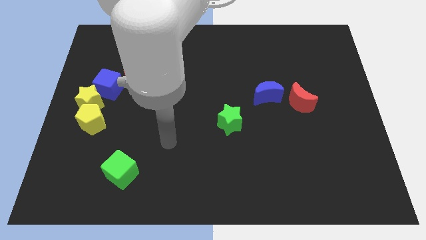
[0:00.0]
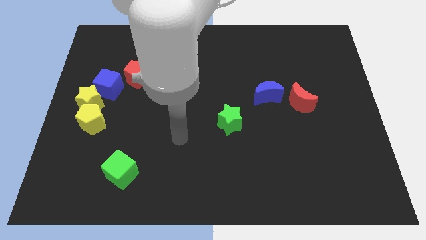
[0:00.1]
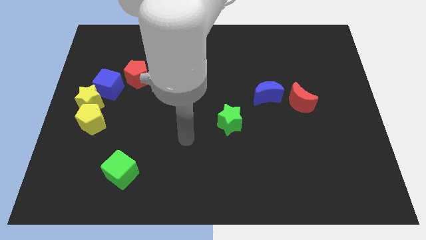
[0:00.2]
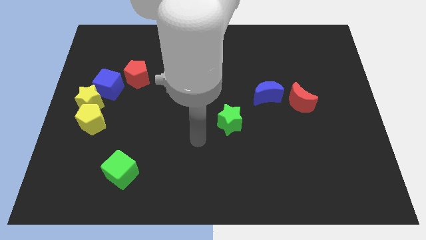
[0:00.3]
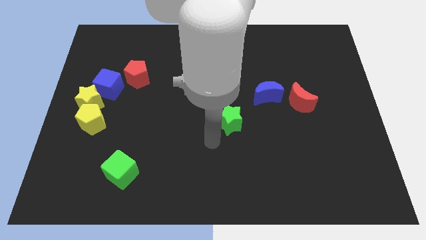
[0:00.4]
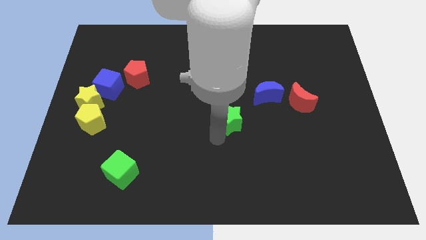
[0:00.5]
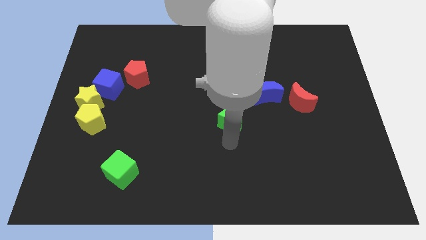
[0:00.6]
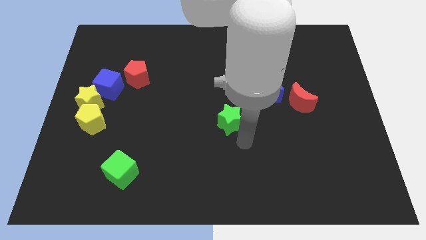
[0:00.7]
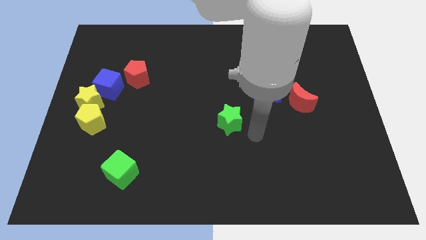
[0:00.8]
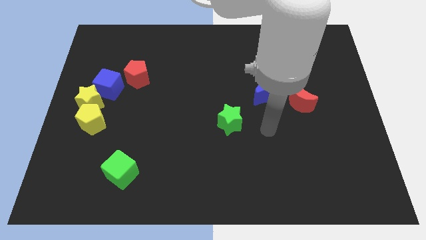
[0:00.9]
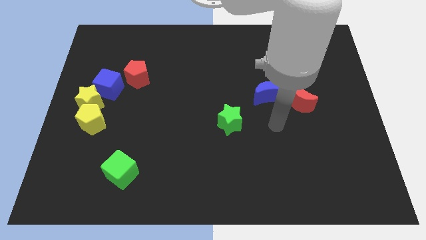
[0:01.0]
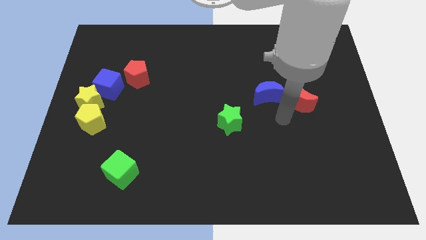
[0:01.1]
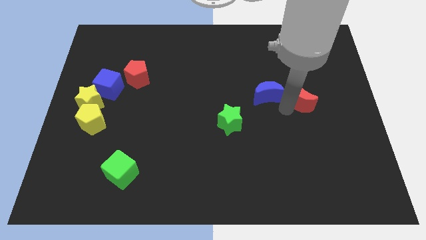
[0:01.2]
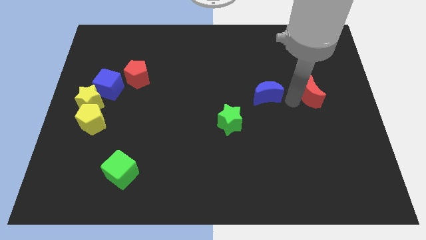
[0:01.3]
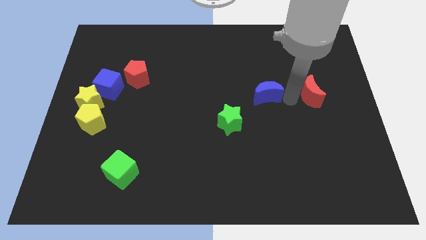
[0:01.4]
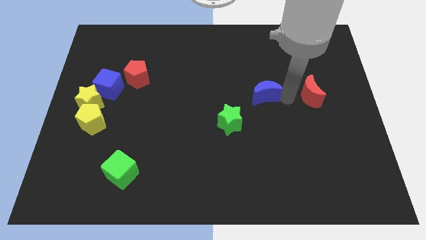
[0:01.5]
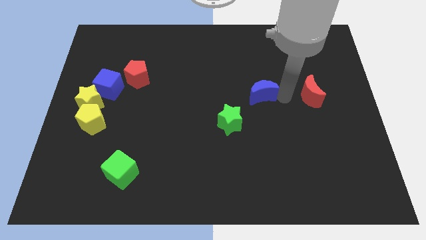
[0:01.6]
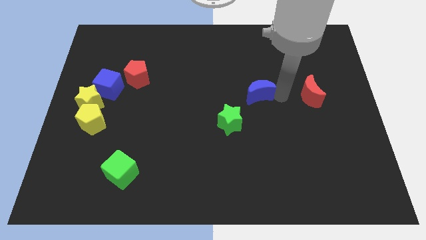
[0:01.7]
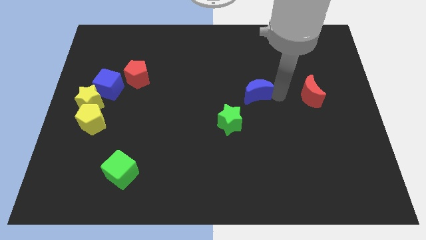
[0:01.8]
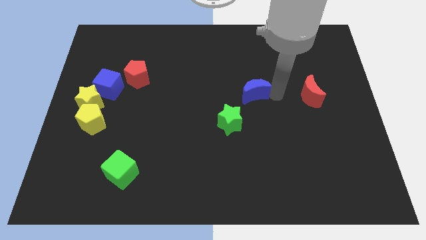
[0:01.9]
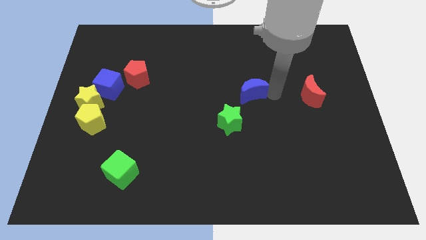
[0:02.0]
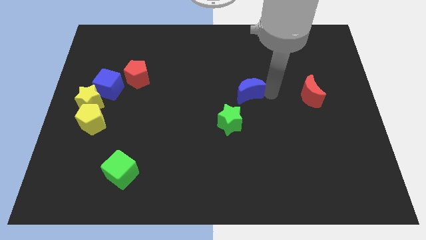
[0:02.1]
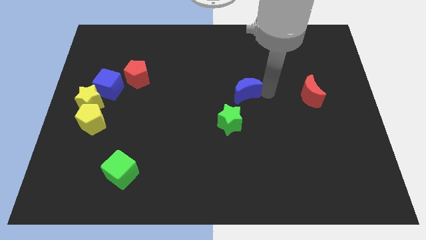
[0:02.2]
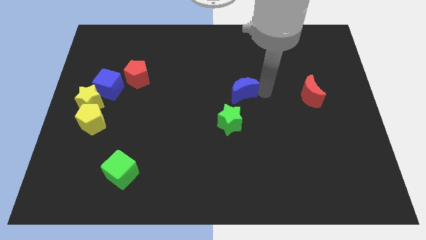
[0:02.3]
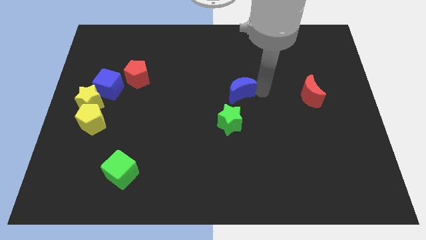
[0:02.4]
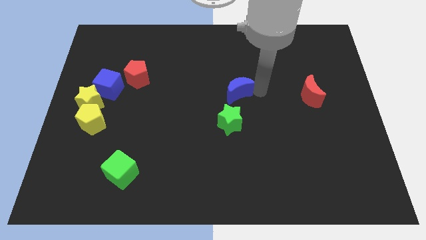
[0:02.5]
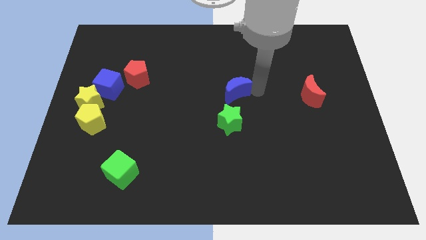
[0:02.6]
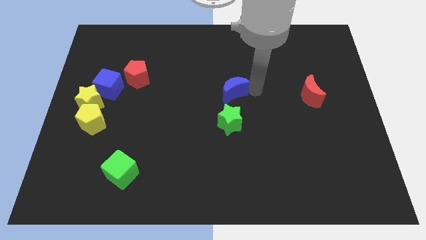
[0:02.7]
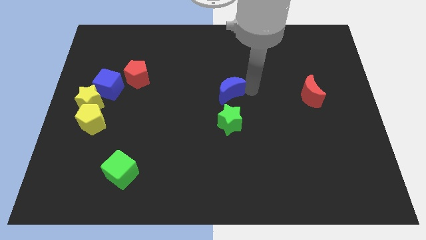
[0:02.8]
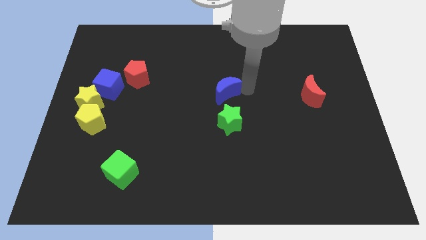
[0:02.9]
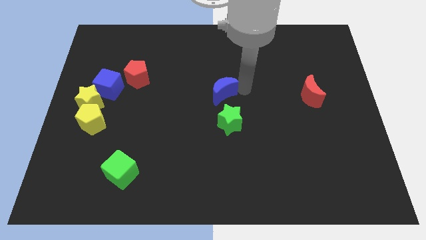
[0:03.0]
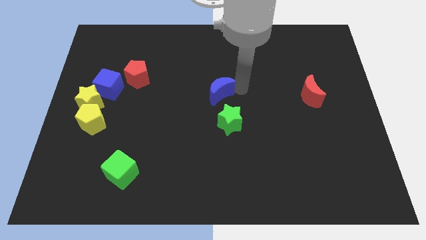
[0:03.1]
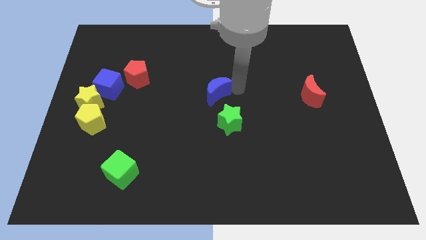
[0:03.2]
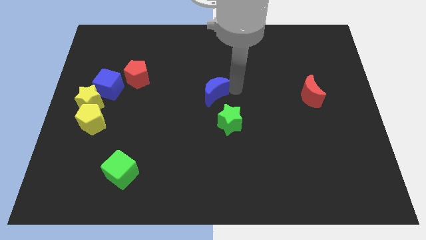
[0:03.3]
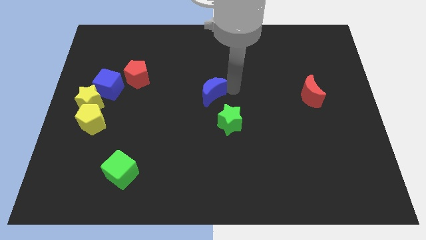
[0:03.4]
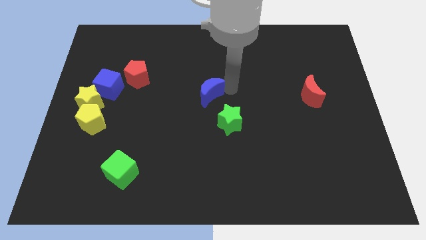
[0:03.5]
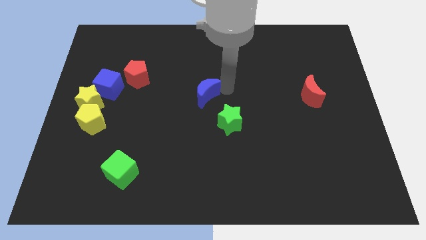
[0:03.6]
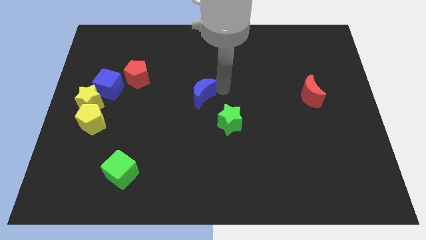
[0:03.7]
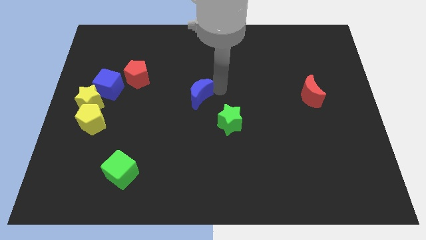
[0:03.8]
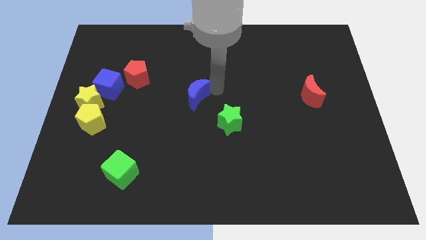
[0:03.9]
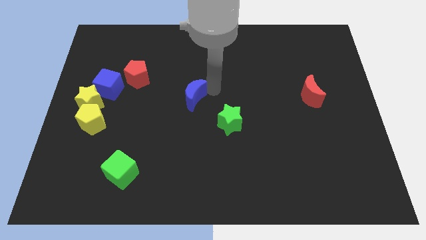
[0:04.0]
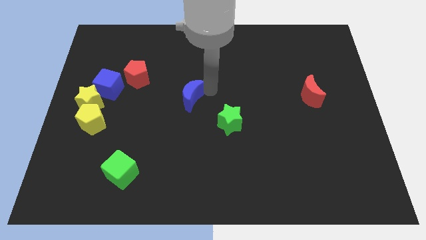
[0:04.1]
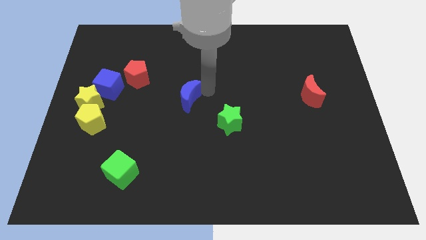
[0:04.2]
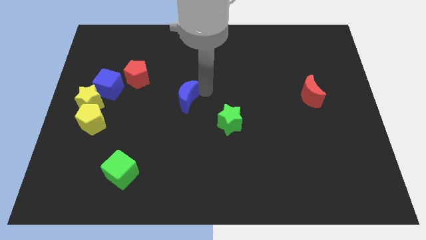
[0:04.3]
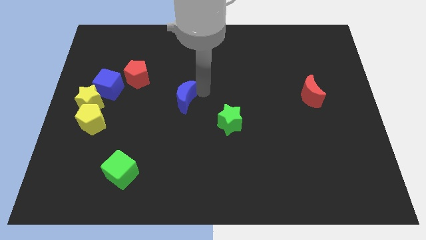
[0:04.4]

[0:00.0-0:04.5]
slide the blue moon to the left

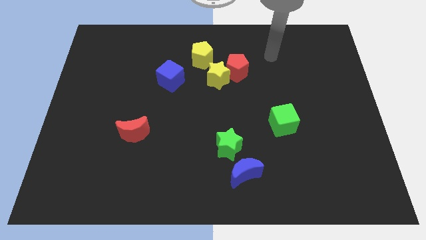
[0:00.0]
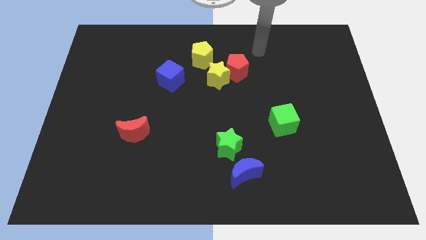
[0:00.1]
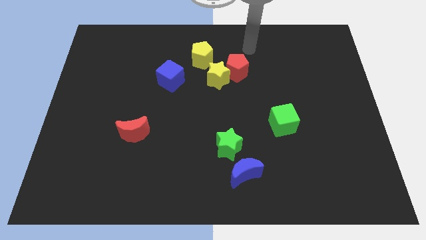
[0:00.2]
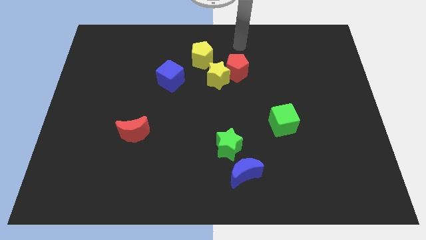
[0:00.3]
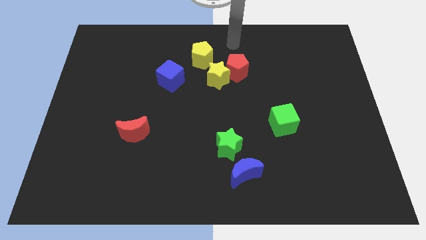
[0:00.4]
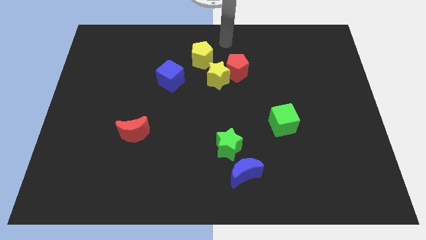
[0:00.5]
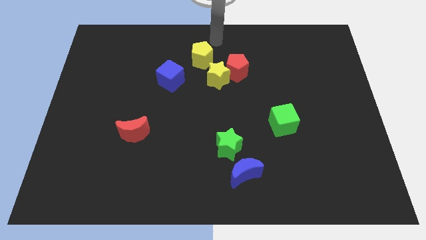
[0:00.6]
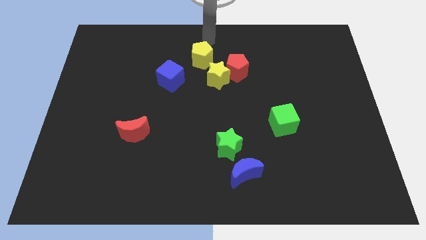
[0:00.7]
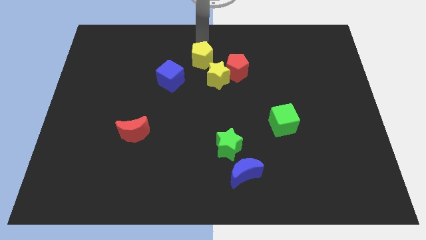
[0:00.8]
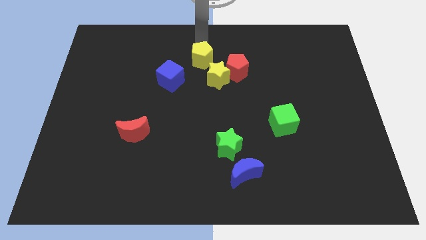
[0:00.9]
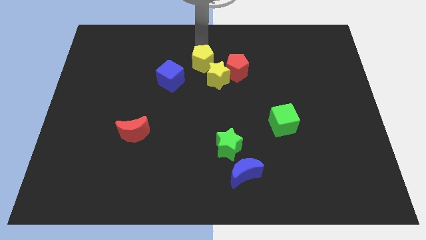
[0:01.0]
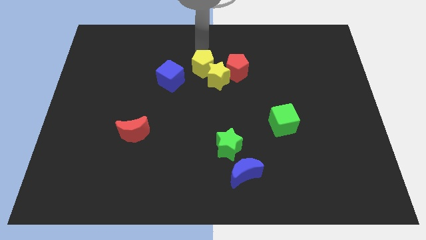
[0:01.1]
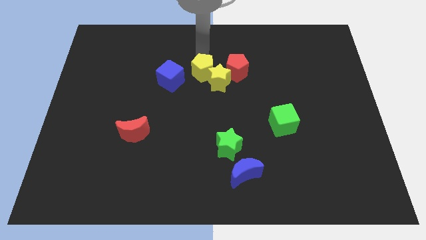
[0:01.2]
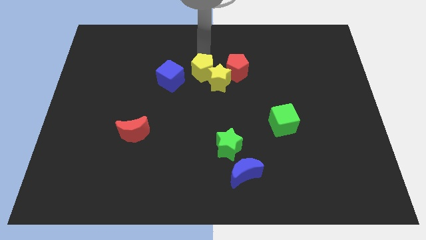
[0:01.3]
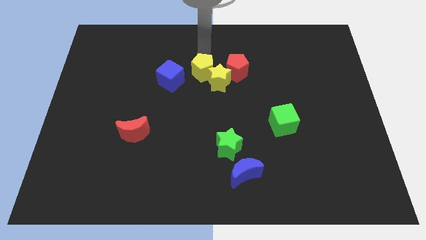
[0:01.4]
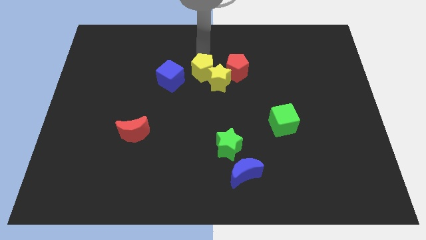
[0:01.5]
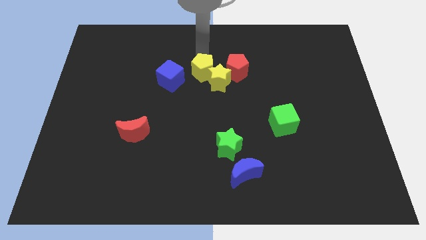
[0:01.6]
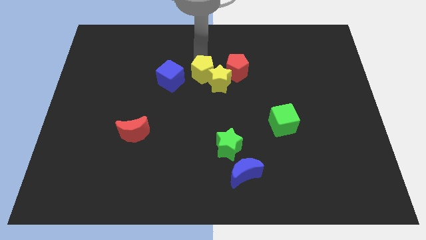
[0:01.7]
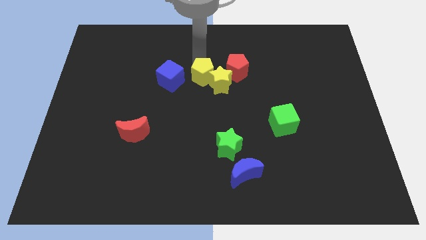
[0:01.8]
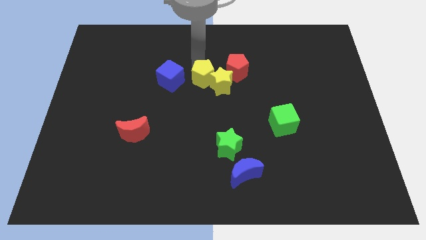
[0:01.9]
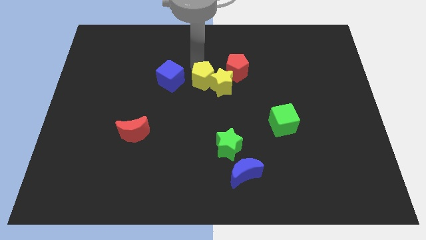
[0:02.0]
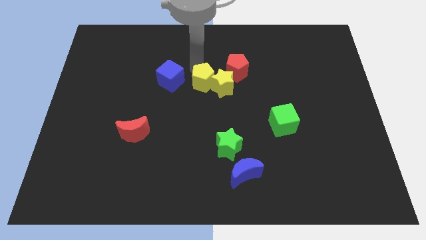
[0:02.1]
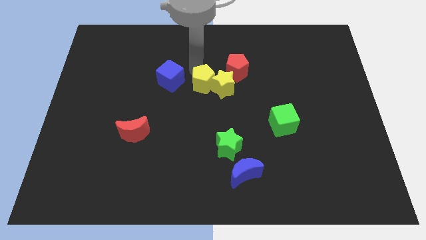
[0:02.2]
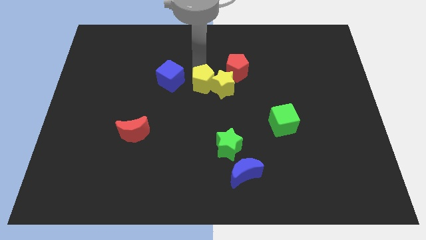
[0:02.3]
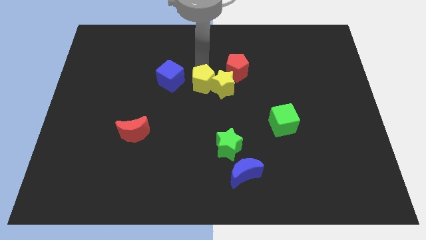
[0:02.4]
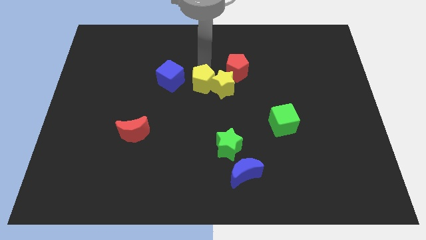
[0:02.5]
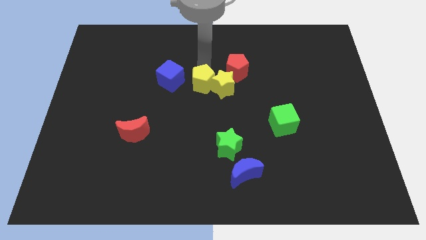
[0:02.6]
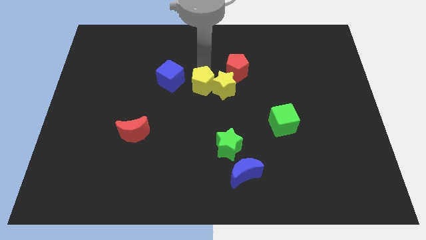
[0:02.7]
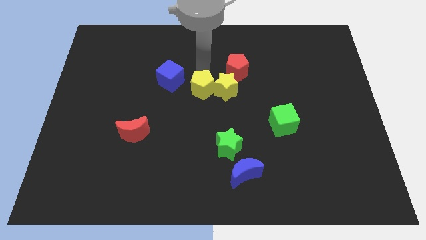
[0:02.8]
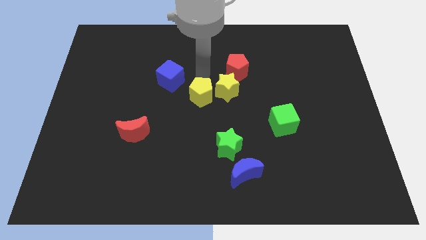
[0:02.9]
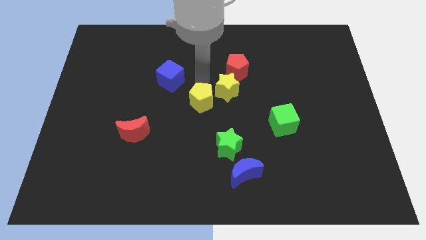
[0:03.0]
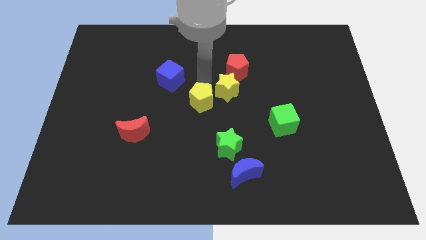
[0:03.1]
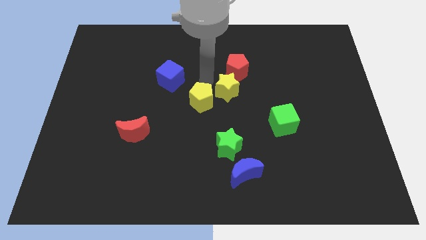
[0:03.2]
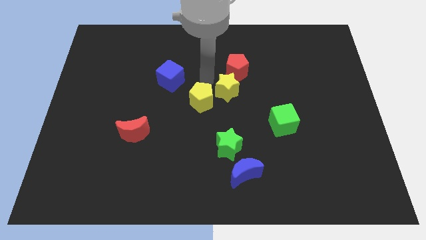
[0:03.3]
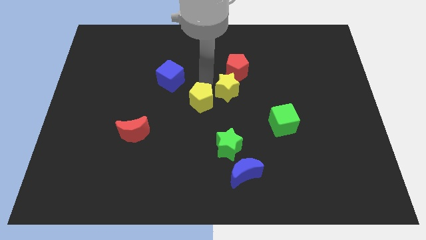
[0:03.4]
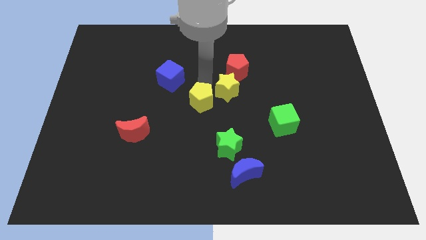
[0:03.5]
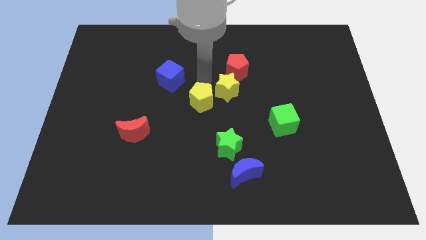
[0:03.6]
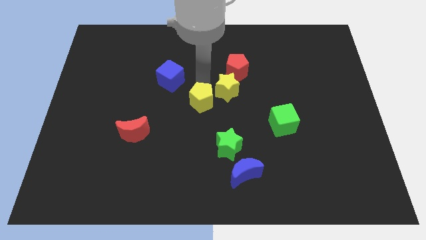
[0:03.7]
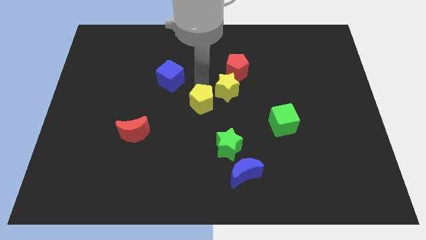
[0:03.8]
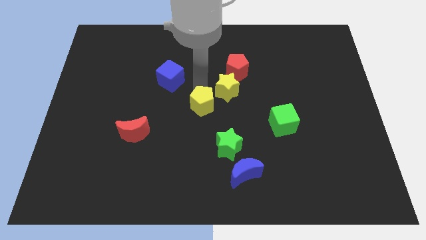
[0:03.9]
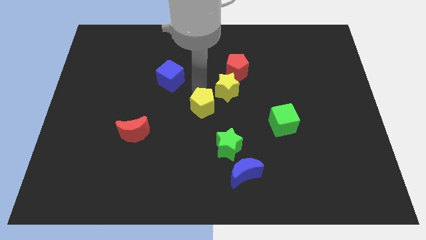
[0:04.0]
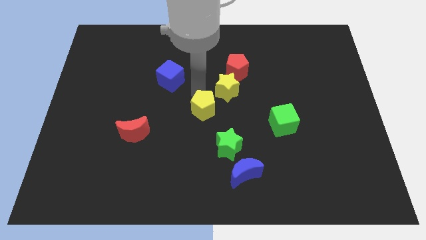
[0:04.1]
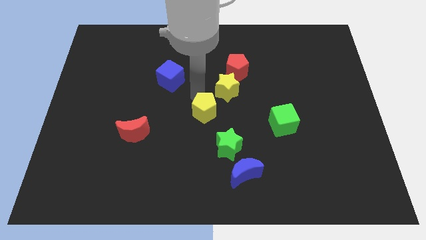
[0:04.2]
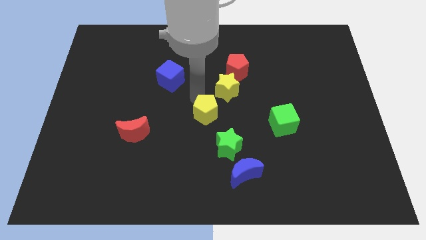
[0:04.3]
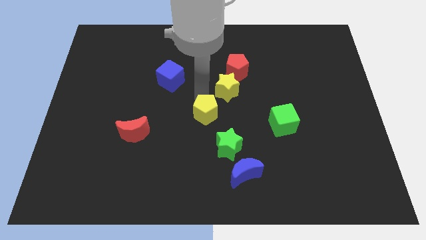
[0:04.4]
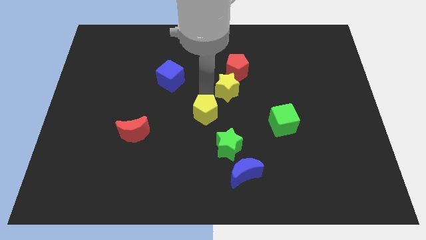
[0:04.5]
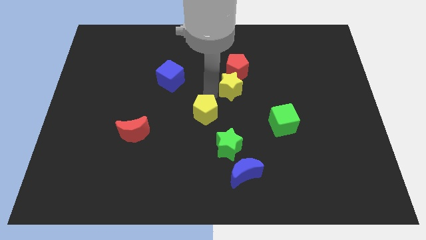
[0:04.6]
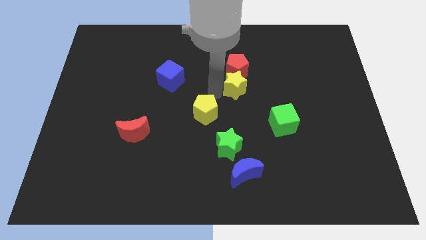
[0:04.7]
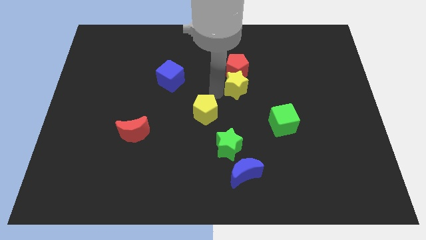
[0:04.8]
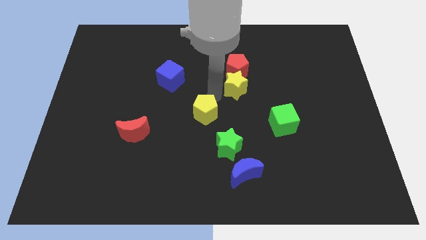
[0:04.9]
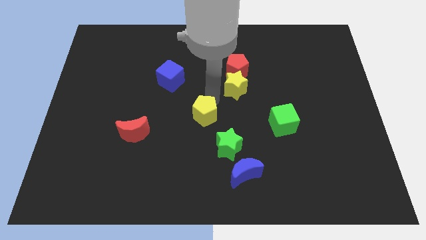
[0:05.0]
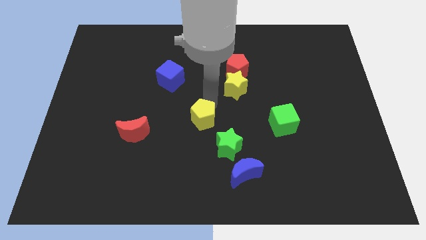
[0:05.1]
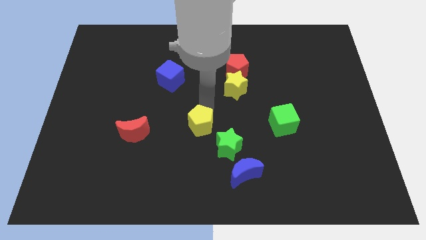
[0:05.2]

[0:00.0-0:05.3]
move the yellow pentagon down
